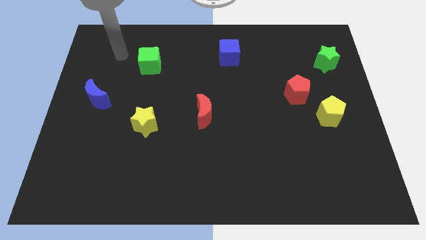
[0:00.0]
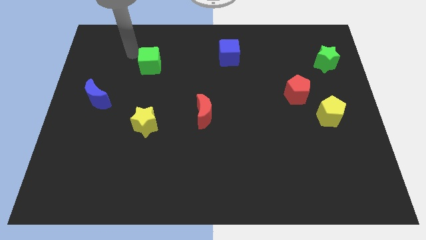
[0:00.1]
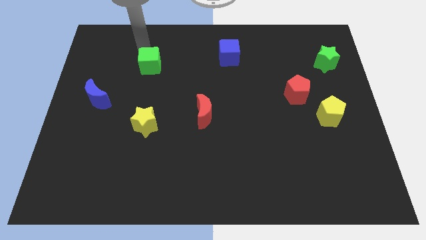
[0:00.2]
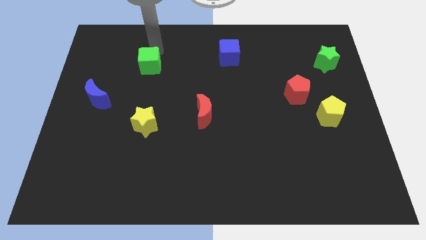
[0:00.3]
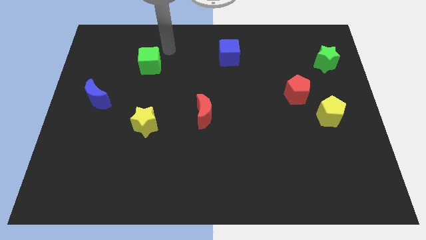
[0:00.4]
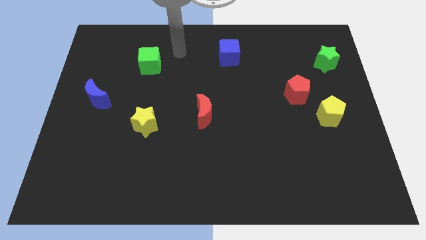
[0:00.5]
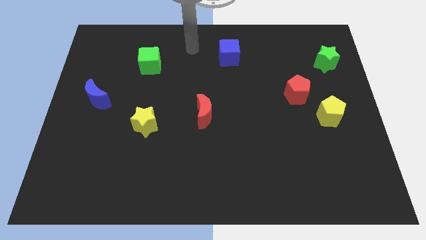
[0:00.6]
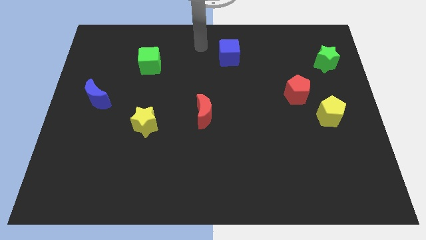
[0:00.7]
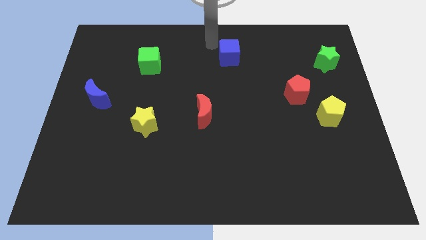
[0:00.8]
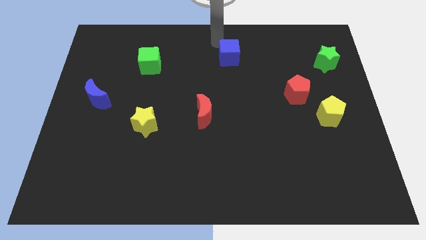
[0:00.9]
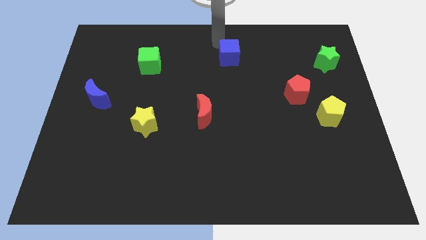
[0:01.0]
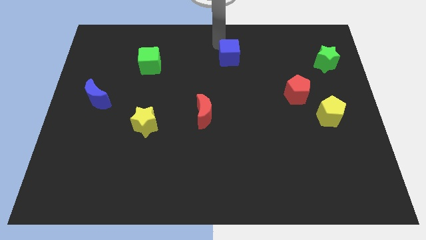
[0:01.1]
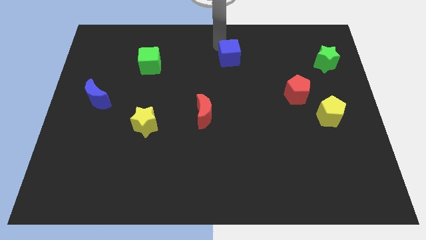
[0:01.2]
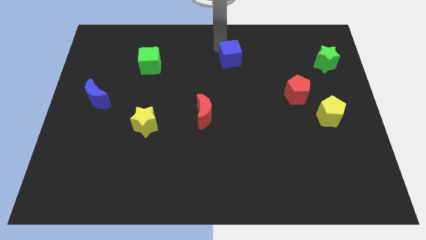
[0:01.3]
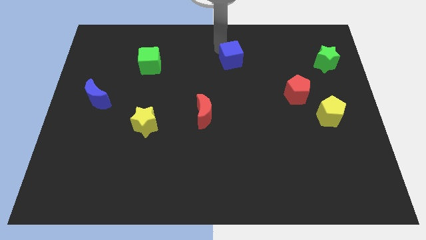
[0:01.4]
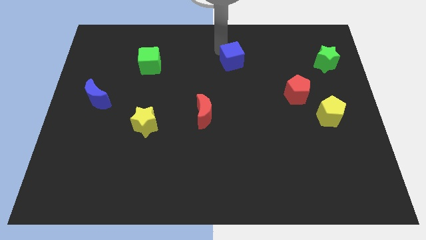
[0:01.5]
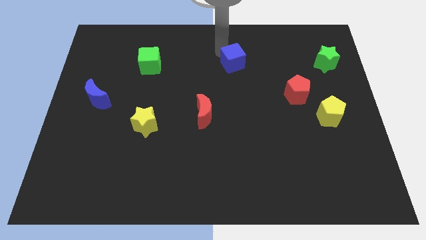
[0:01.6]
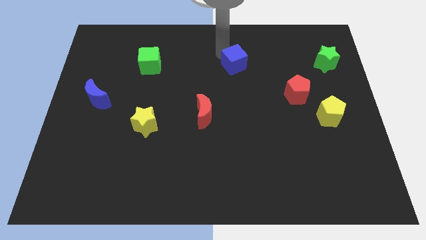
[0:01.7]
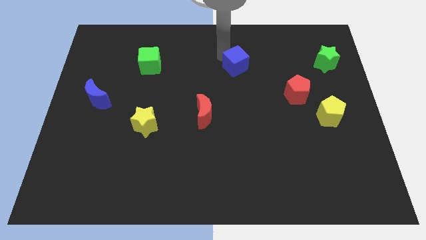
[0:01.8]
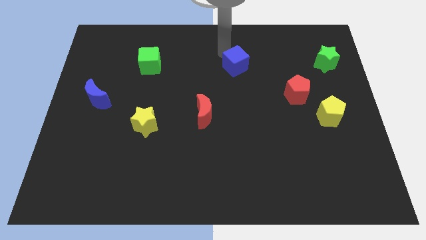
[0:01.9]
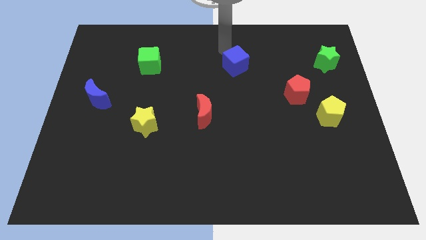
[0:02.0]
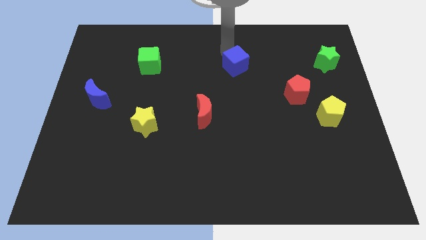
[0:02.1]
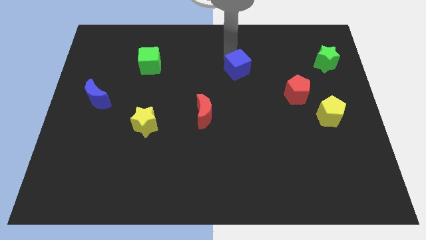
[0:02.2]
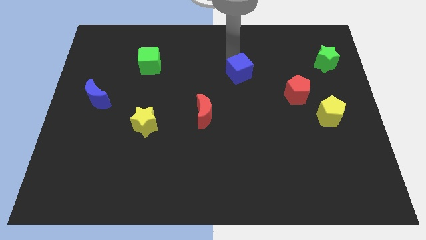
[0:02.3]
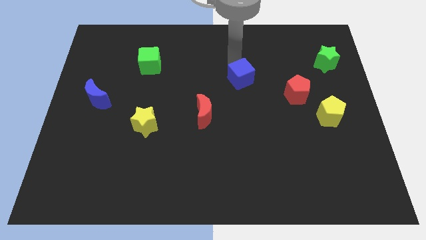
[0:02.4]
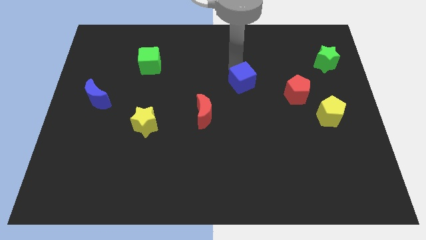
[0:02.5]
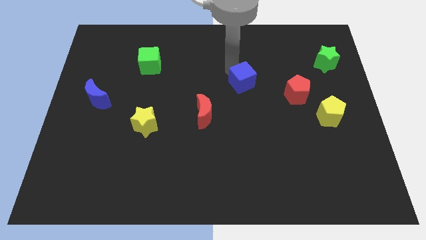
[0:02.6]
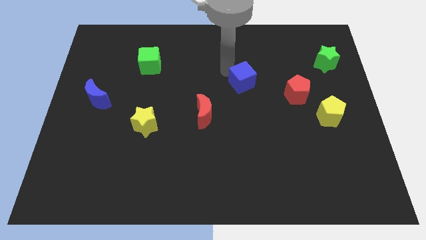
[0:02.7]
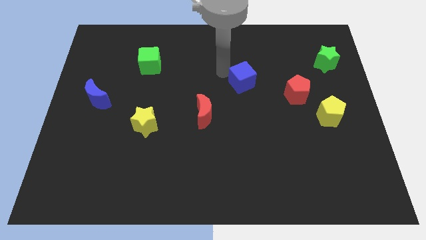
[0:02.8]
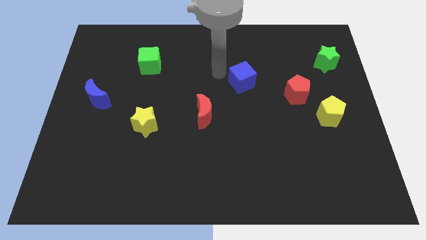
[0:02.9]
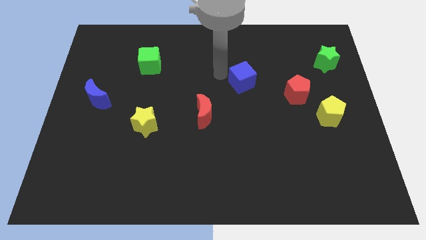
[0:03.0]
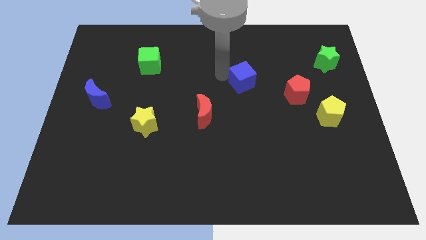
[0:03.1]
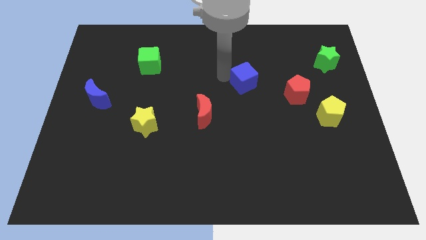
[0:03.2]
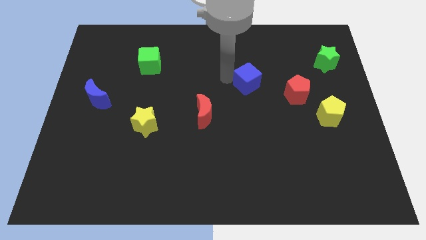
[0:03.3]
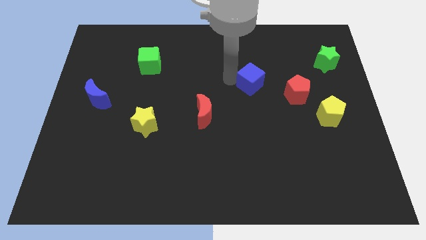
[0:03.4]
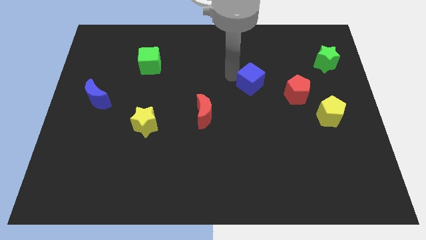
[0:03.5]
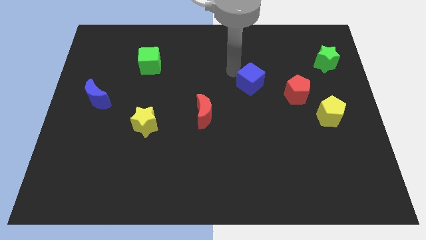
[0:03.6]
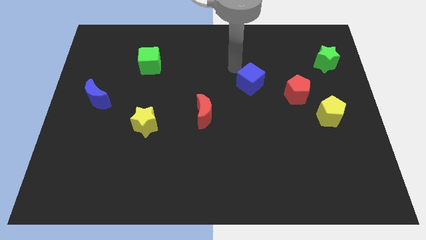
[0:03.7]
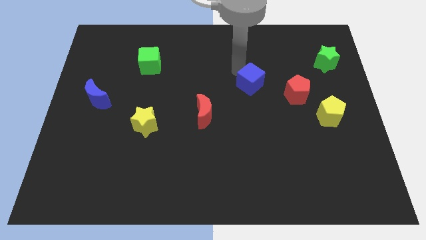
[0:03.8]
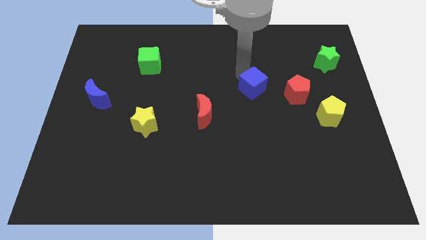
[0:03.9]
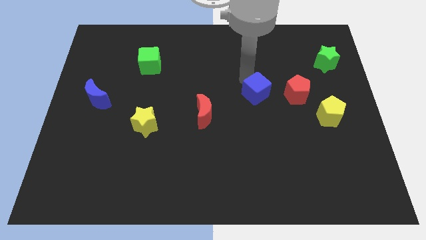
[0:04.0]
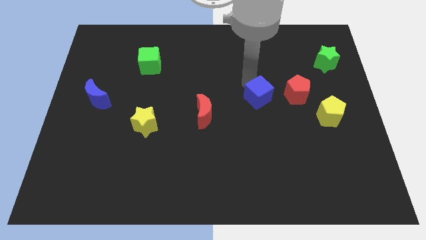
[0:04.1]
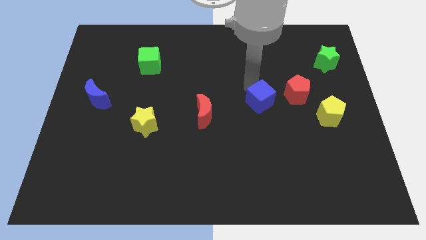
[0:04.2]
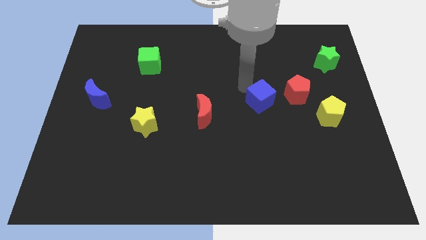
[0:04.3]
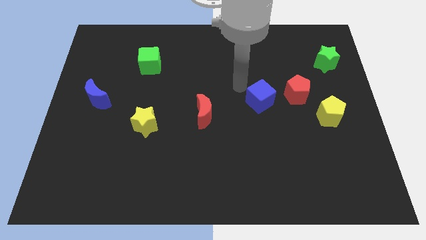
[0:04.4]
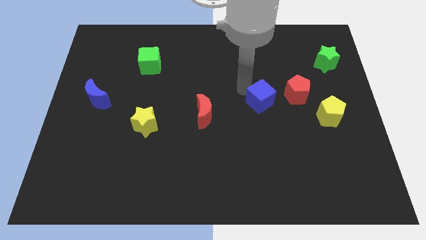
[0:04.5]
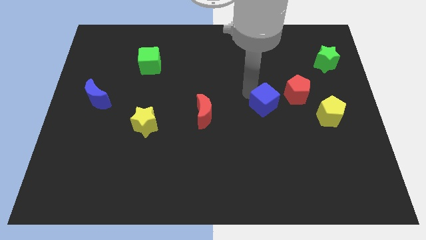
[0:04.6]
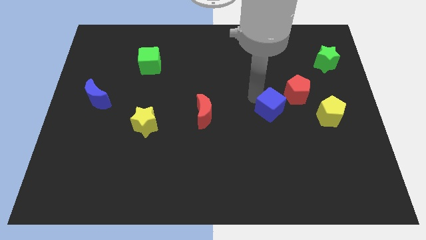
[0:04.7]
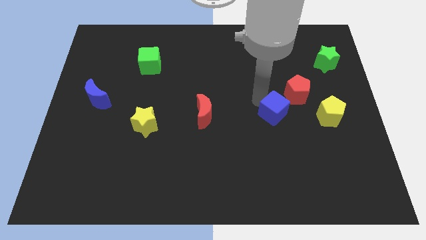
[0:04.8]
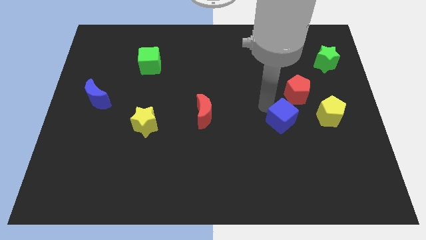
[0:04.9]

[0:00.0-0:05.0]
slide the blue cube to the bottom side of the red pentagon

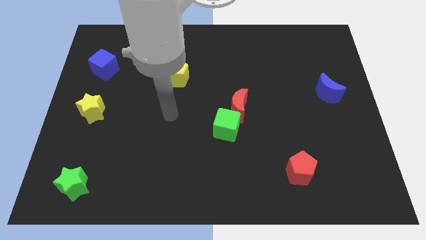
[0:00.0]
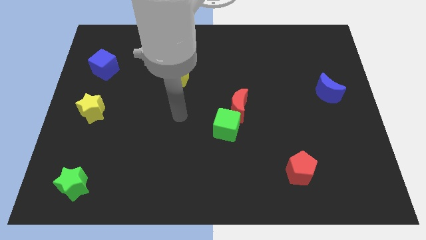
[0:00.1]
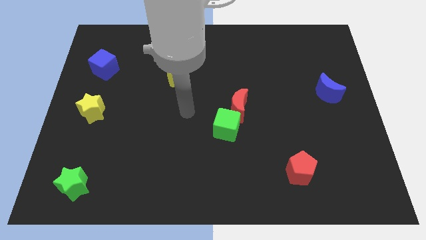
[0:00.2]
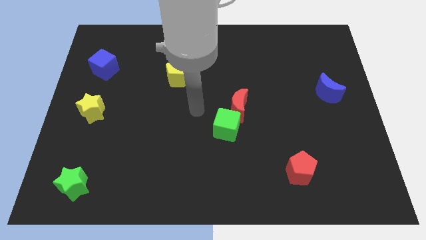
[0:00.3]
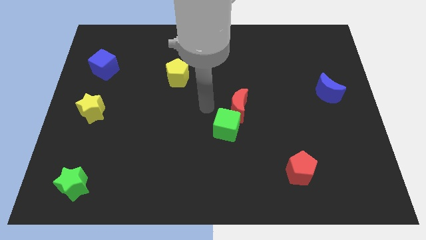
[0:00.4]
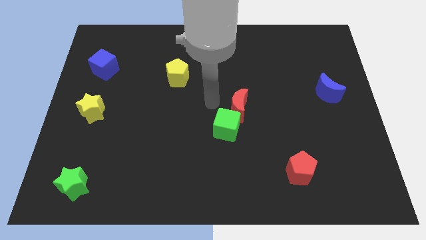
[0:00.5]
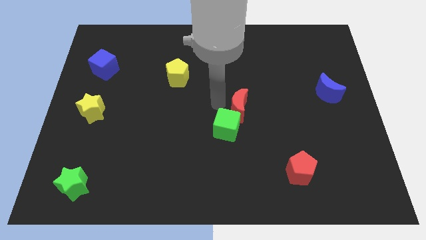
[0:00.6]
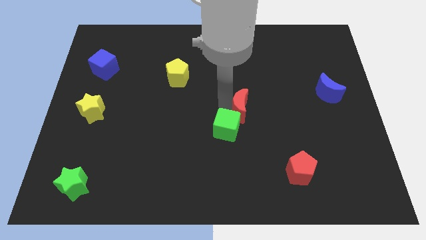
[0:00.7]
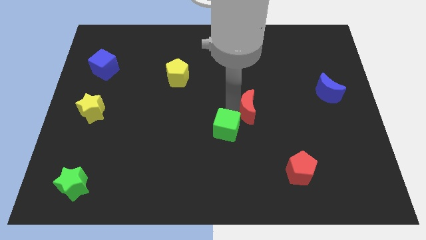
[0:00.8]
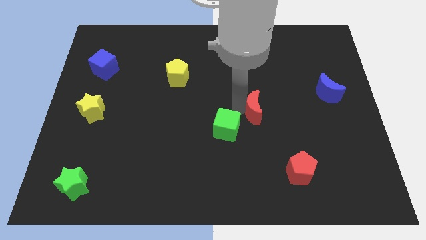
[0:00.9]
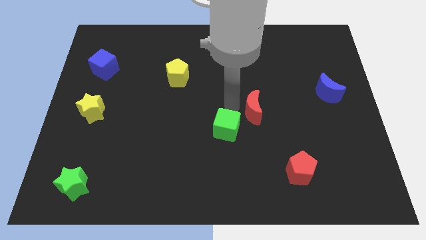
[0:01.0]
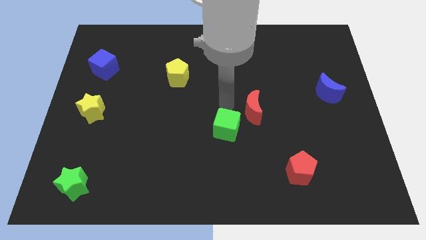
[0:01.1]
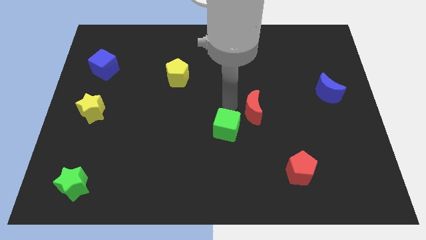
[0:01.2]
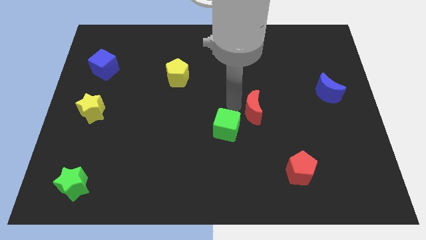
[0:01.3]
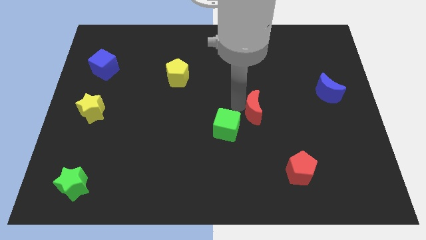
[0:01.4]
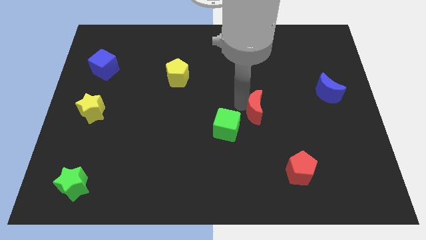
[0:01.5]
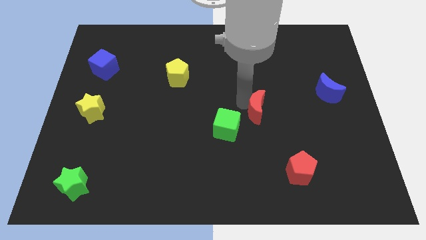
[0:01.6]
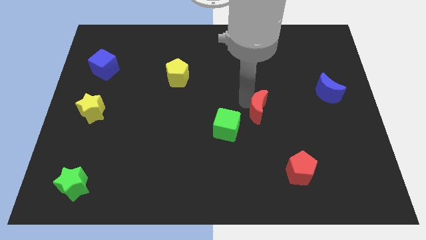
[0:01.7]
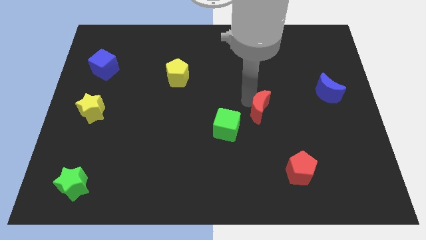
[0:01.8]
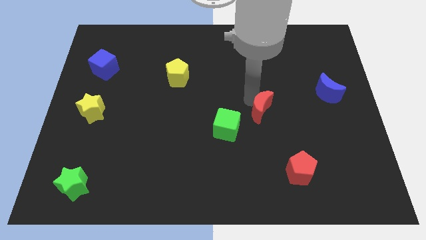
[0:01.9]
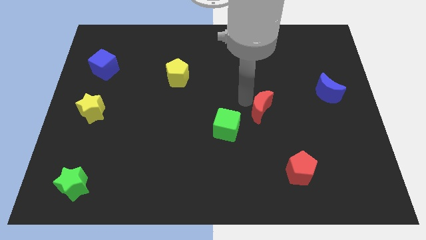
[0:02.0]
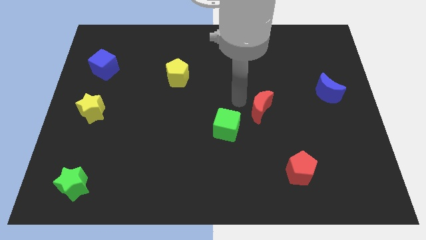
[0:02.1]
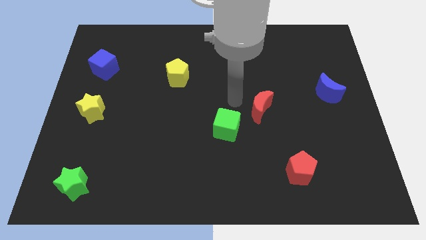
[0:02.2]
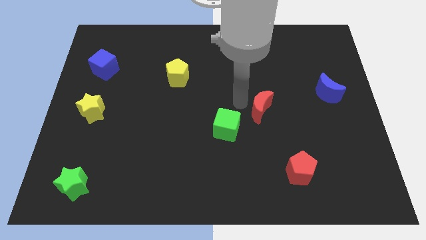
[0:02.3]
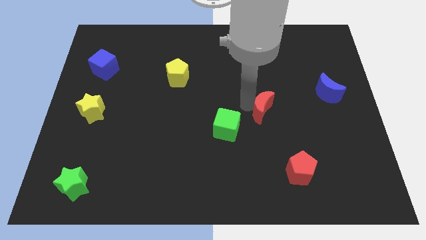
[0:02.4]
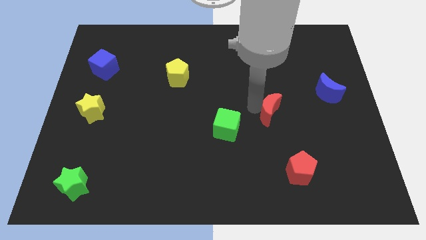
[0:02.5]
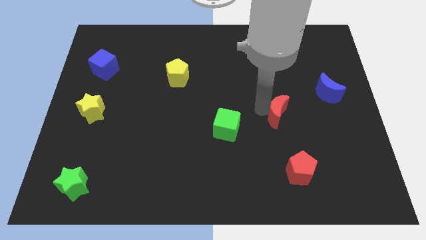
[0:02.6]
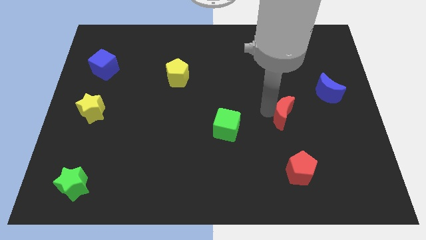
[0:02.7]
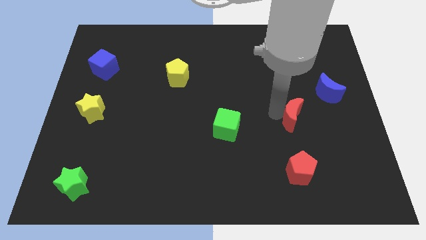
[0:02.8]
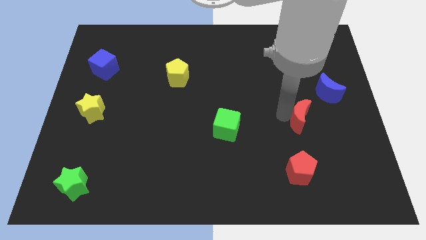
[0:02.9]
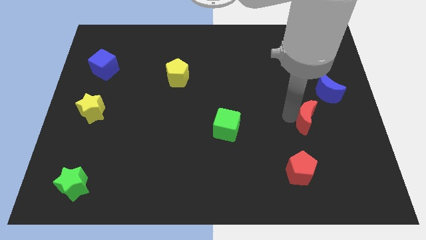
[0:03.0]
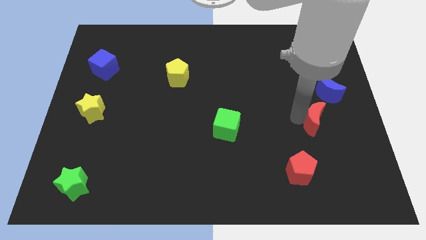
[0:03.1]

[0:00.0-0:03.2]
push the red moon to the bottom of the blue moon

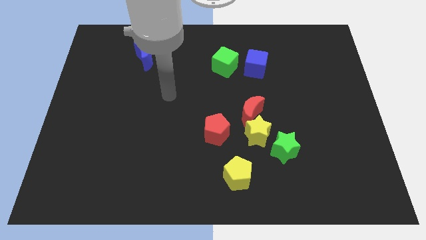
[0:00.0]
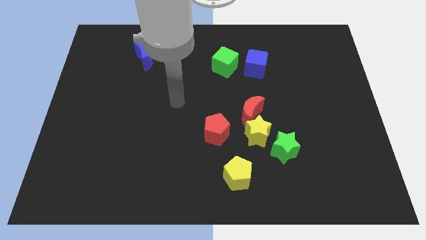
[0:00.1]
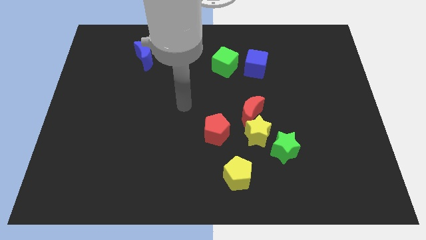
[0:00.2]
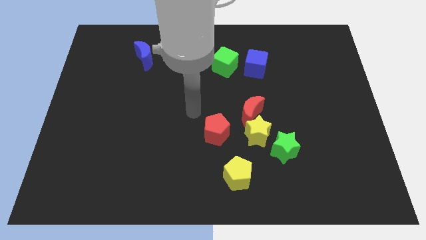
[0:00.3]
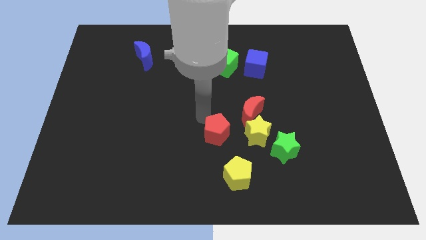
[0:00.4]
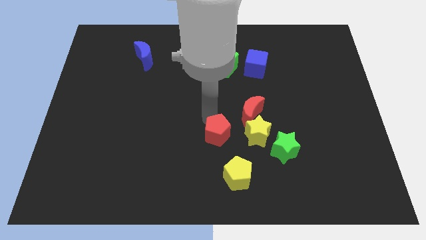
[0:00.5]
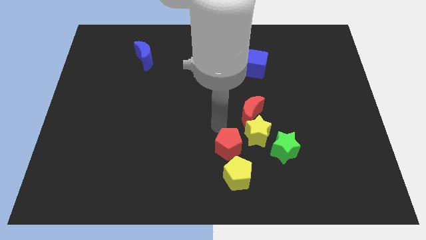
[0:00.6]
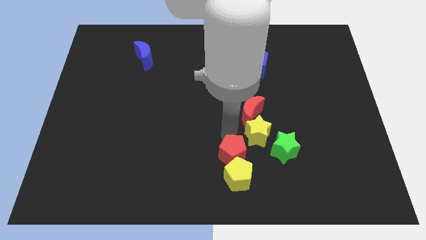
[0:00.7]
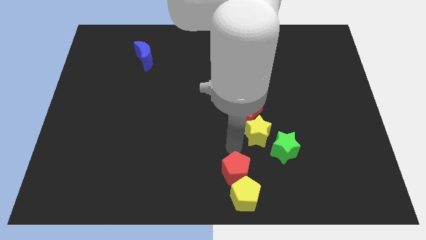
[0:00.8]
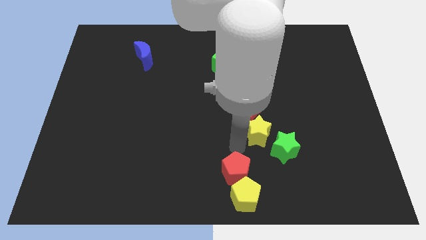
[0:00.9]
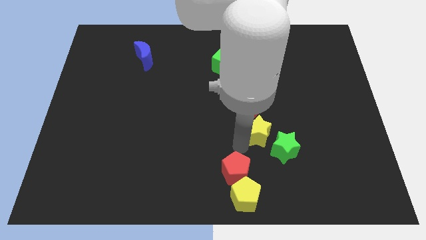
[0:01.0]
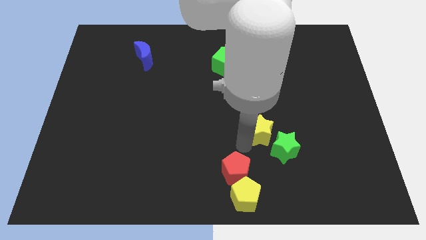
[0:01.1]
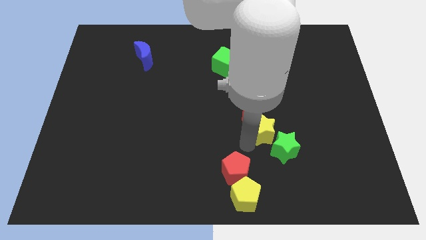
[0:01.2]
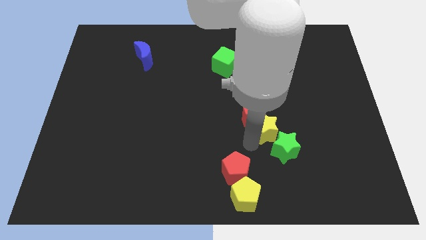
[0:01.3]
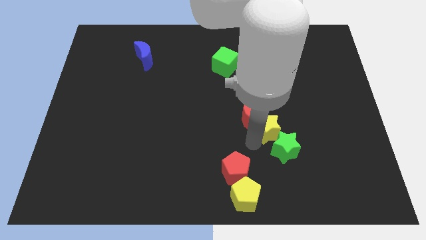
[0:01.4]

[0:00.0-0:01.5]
push the yellow star just right of the red moon
